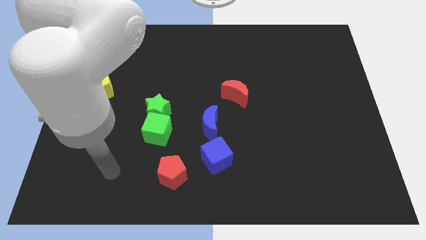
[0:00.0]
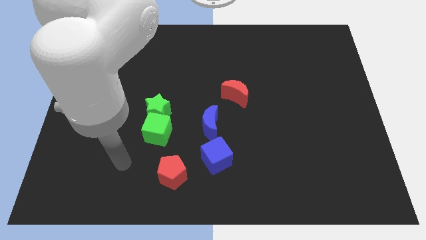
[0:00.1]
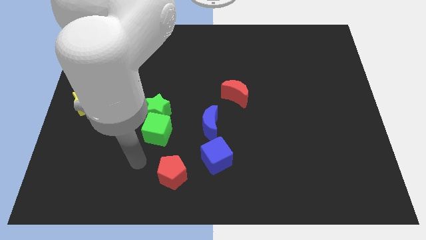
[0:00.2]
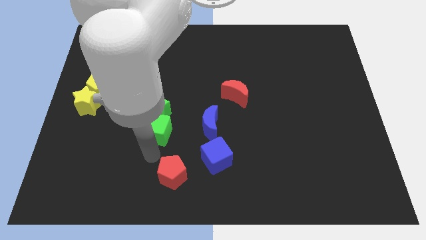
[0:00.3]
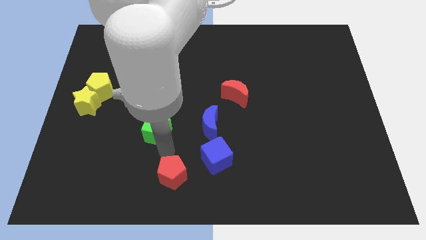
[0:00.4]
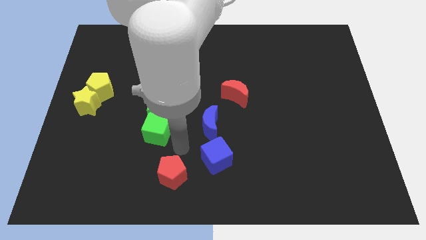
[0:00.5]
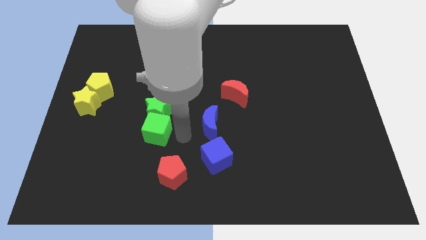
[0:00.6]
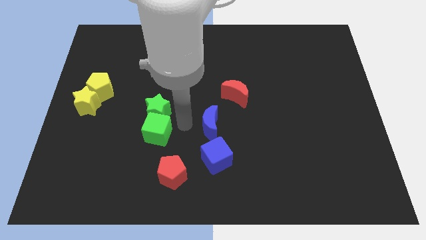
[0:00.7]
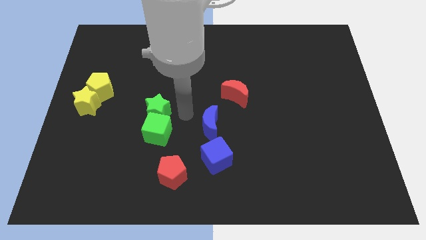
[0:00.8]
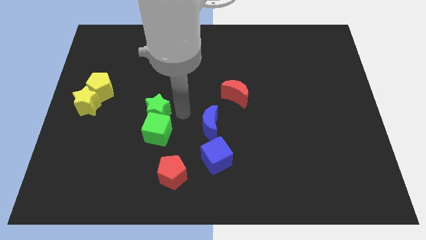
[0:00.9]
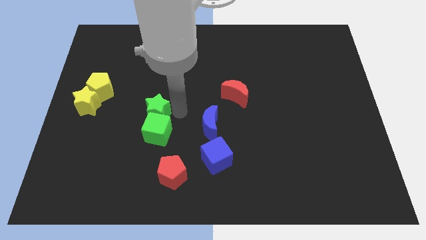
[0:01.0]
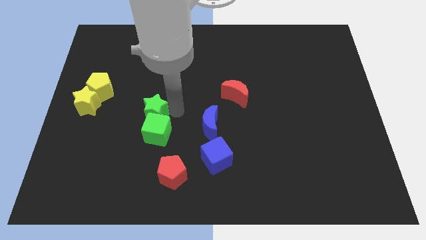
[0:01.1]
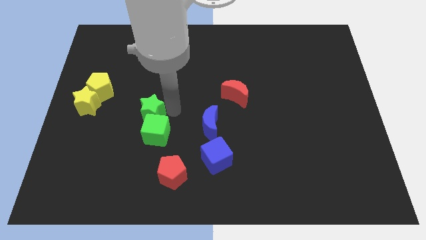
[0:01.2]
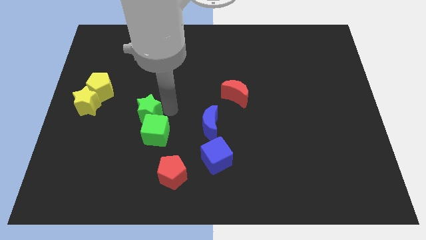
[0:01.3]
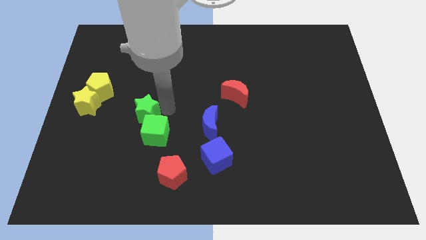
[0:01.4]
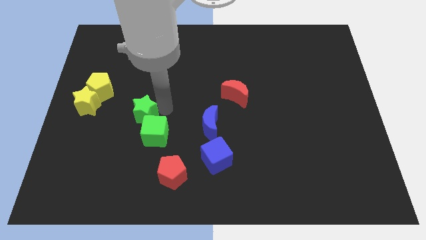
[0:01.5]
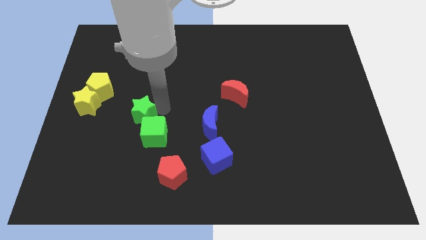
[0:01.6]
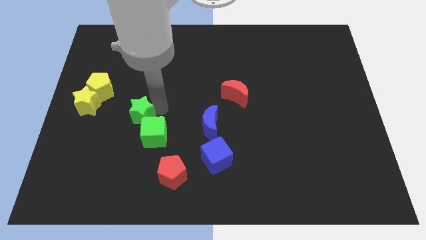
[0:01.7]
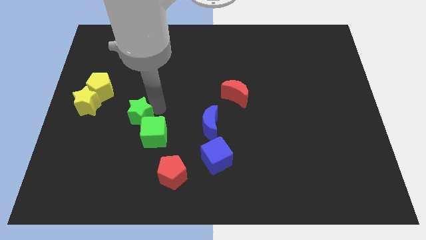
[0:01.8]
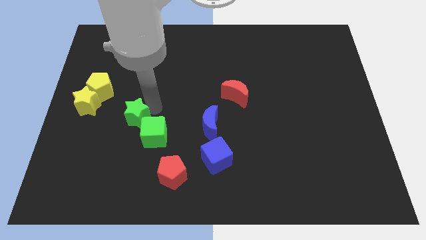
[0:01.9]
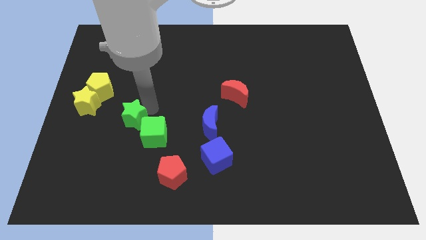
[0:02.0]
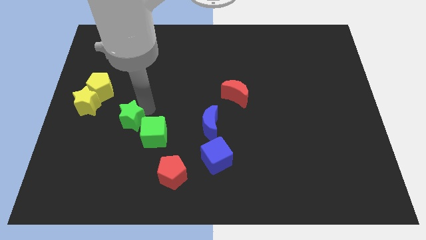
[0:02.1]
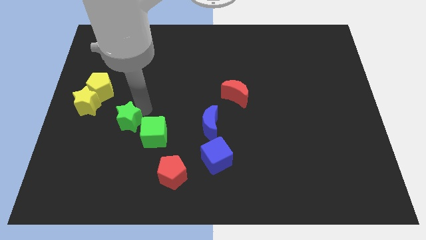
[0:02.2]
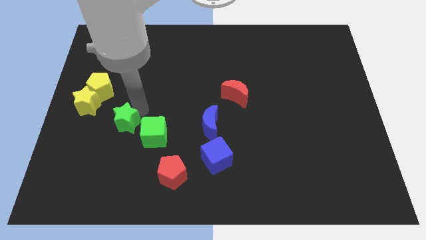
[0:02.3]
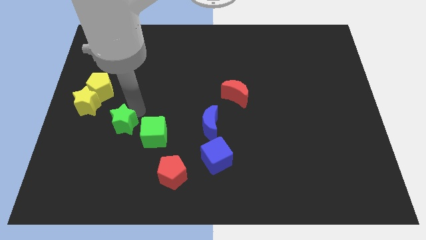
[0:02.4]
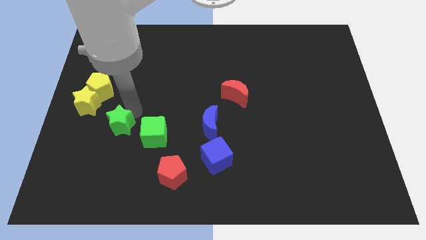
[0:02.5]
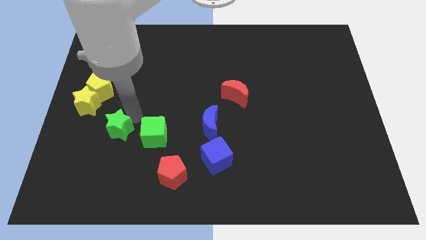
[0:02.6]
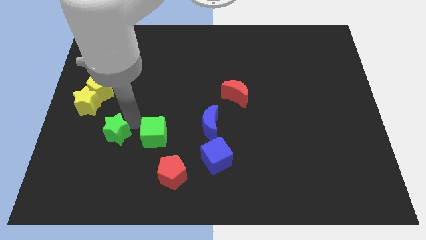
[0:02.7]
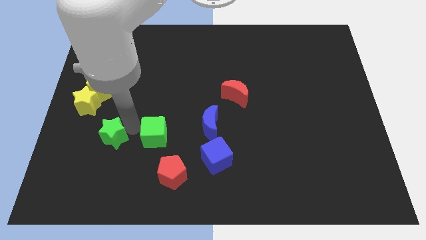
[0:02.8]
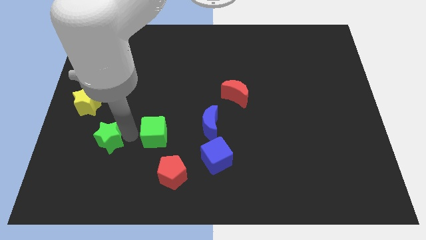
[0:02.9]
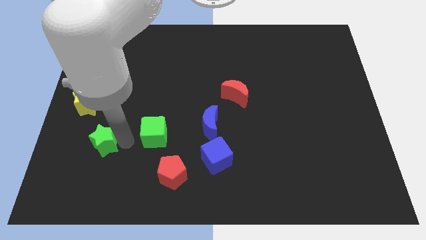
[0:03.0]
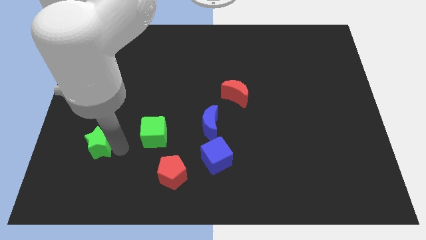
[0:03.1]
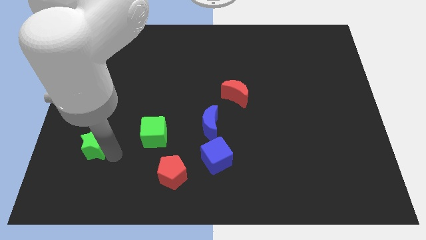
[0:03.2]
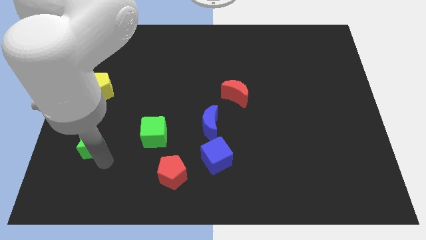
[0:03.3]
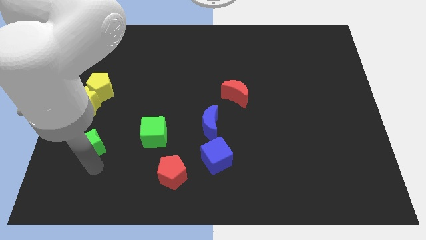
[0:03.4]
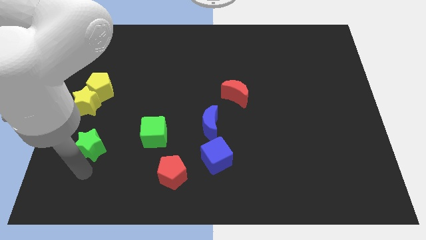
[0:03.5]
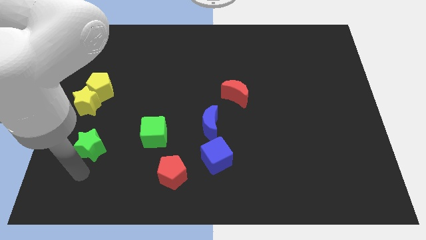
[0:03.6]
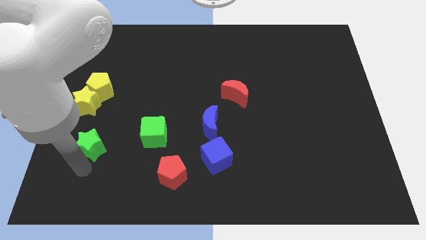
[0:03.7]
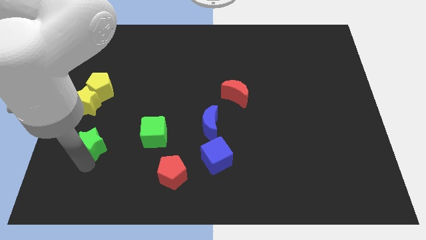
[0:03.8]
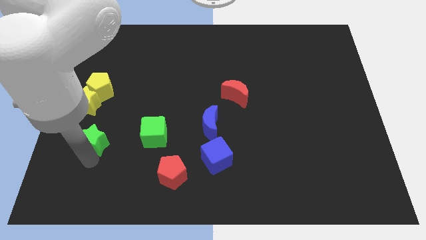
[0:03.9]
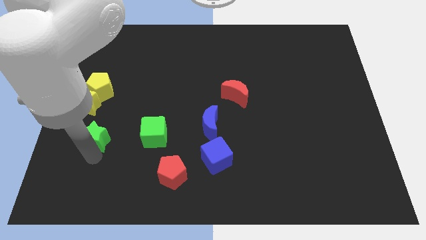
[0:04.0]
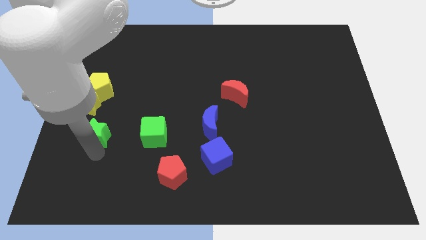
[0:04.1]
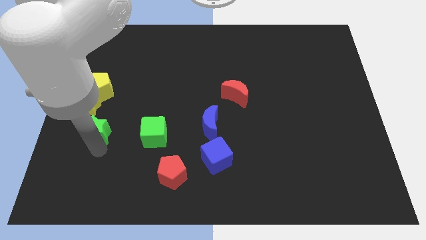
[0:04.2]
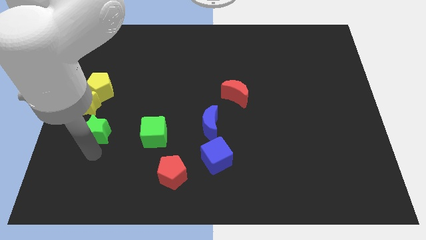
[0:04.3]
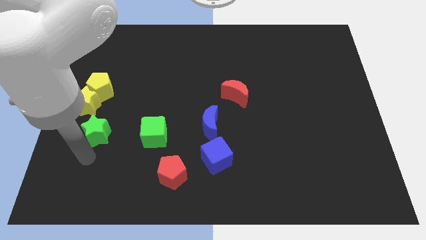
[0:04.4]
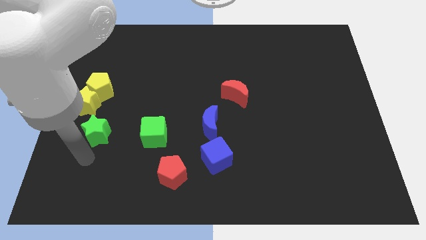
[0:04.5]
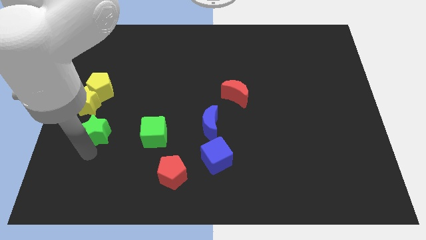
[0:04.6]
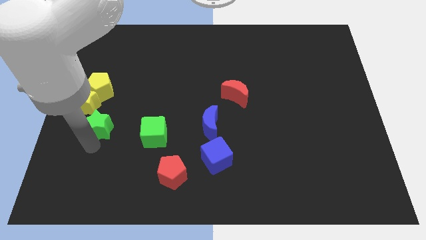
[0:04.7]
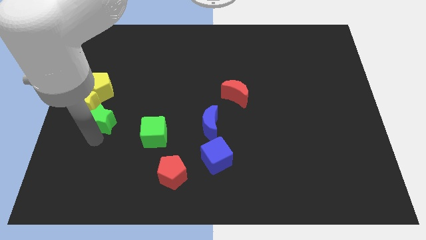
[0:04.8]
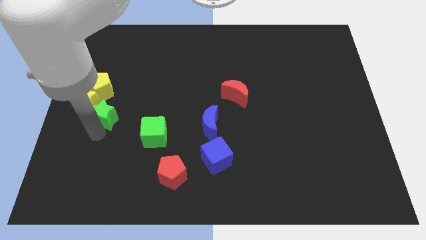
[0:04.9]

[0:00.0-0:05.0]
move the green star next to the yellow star

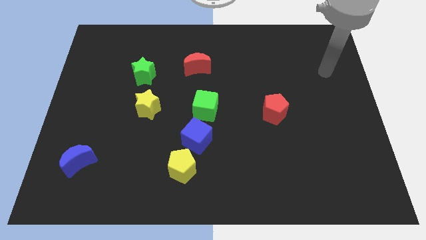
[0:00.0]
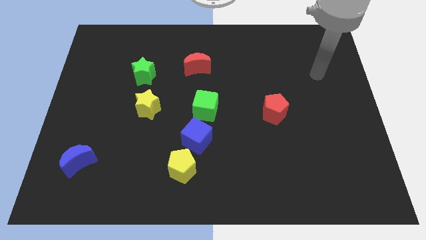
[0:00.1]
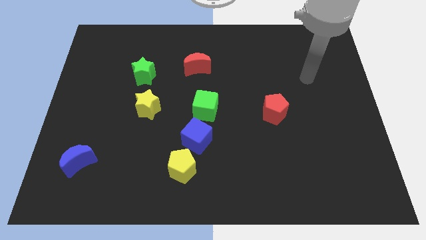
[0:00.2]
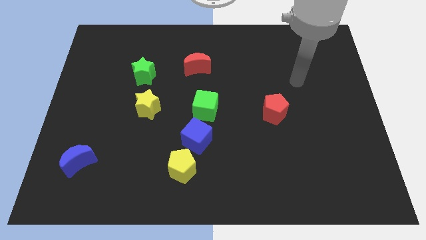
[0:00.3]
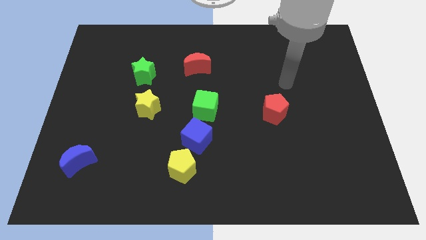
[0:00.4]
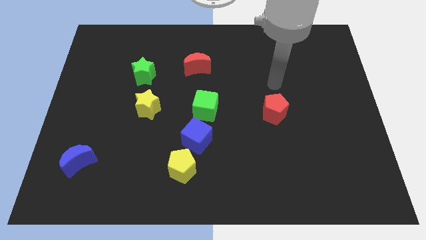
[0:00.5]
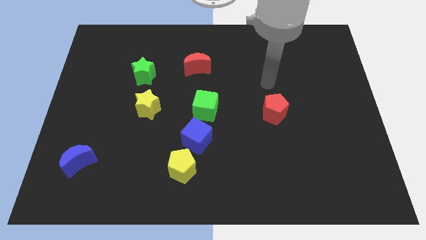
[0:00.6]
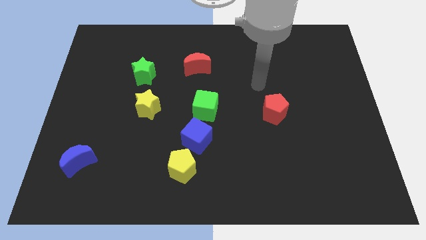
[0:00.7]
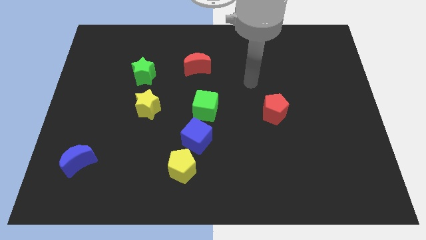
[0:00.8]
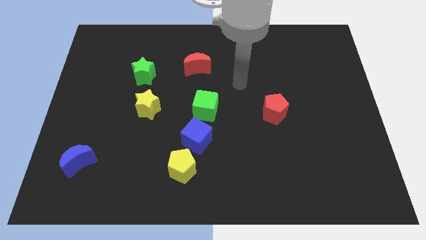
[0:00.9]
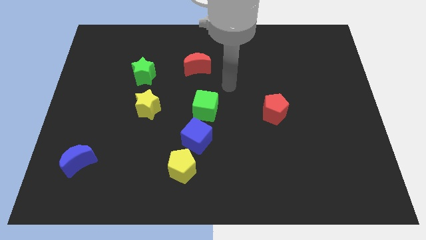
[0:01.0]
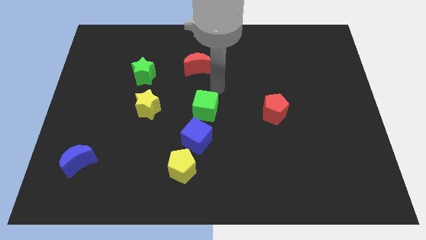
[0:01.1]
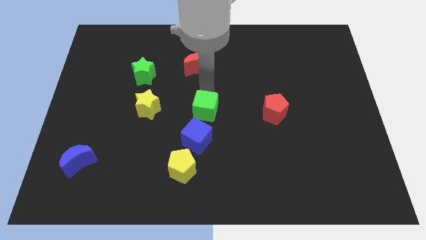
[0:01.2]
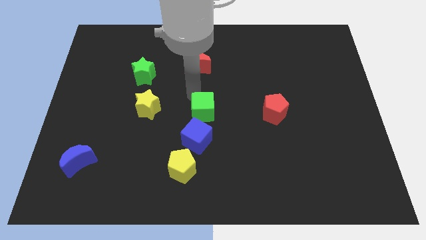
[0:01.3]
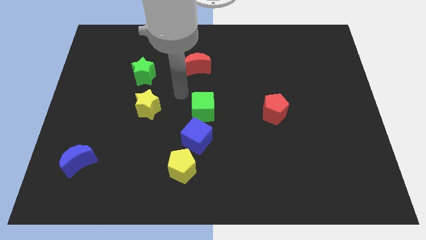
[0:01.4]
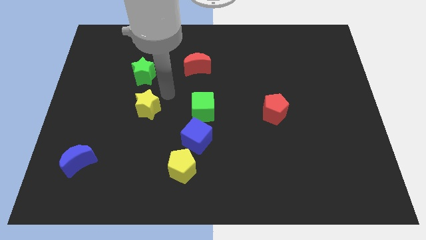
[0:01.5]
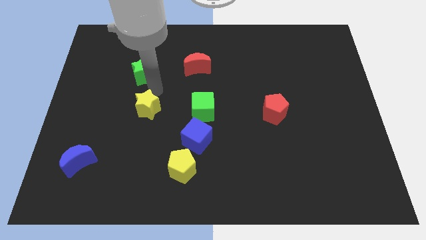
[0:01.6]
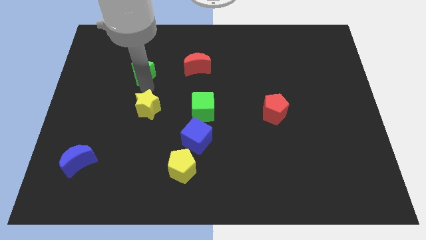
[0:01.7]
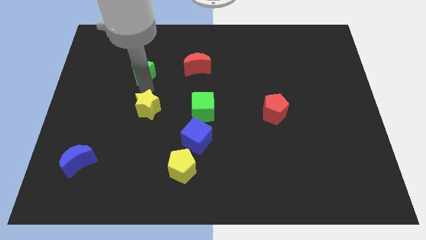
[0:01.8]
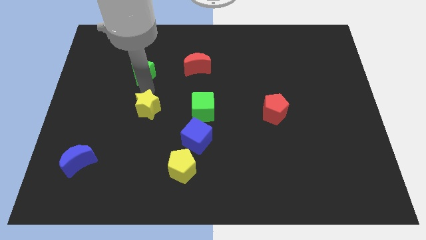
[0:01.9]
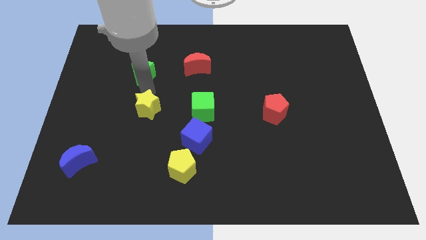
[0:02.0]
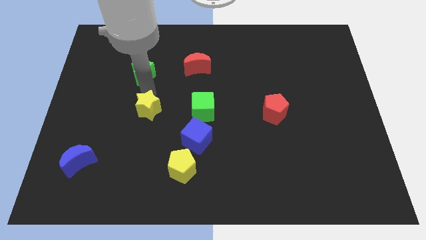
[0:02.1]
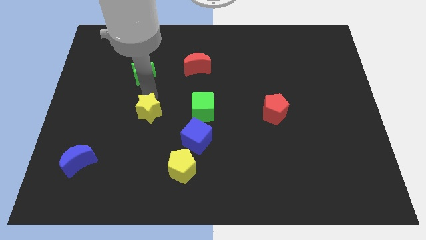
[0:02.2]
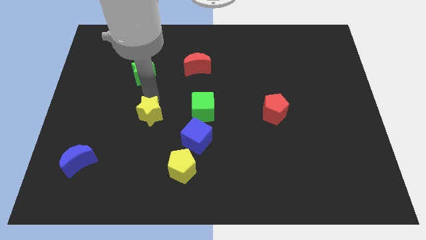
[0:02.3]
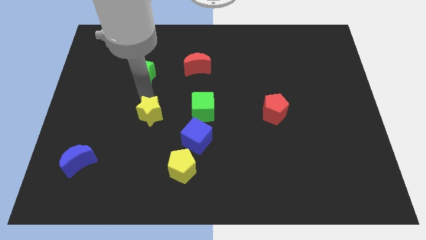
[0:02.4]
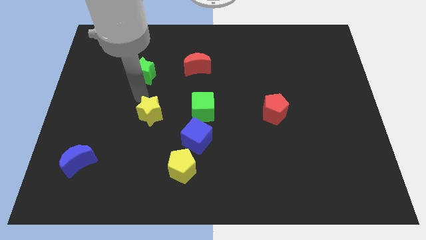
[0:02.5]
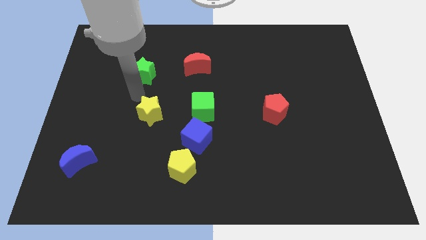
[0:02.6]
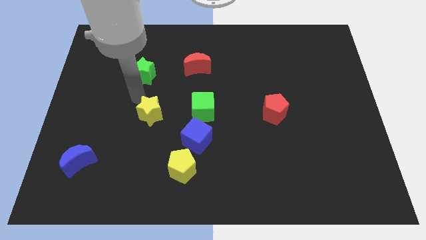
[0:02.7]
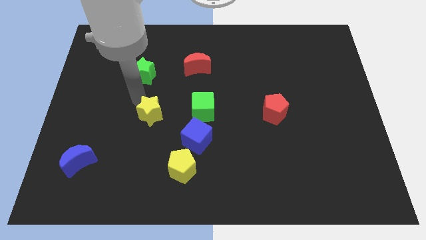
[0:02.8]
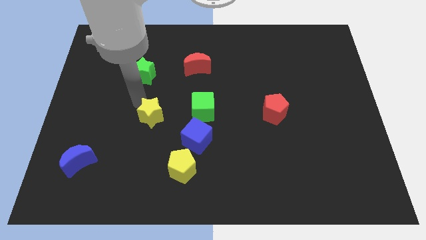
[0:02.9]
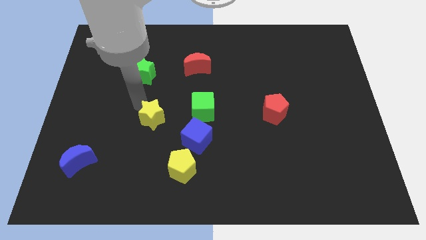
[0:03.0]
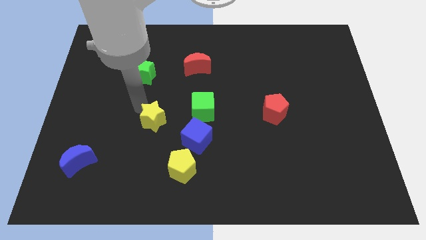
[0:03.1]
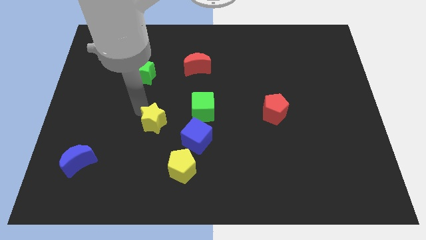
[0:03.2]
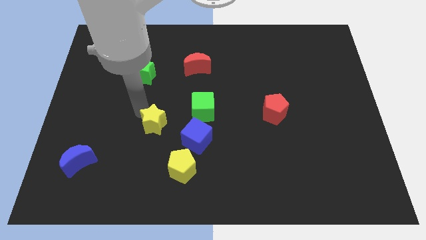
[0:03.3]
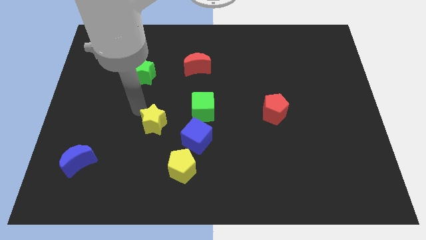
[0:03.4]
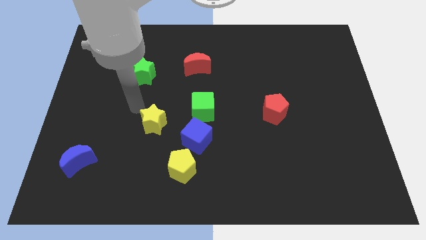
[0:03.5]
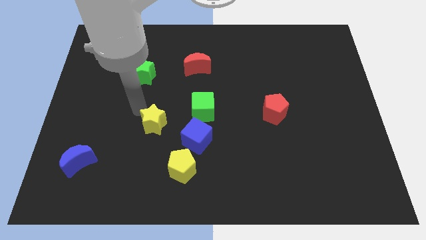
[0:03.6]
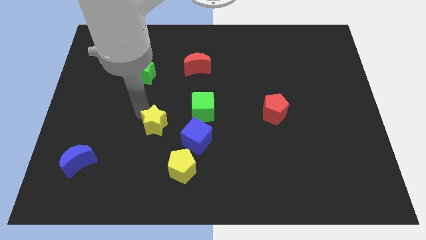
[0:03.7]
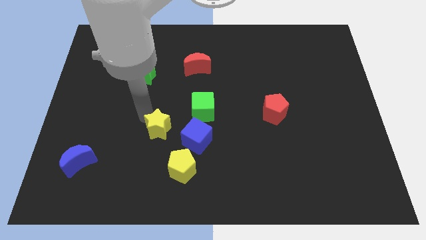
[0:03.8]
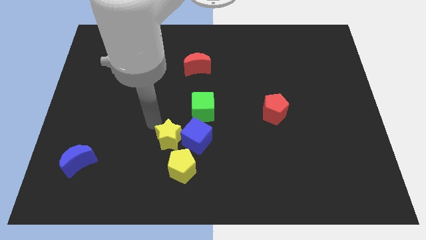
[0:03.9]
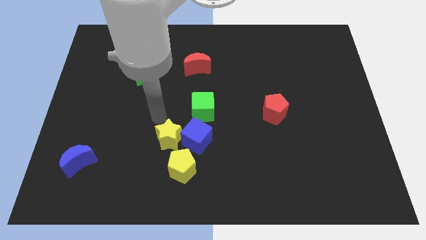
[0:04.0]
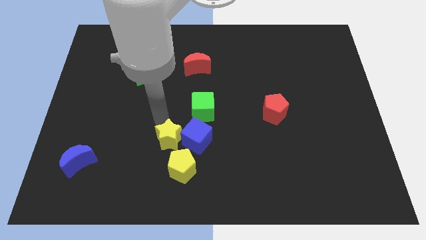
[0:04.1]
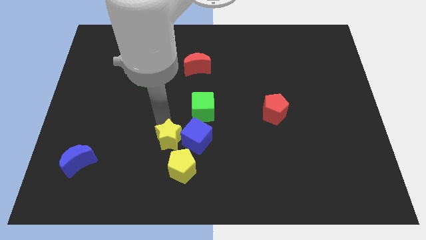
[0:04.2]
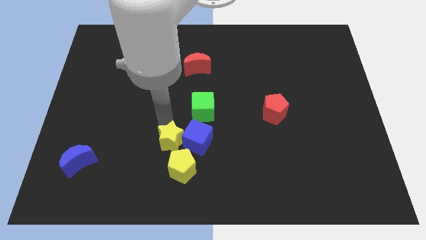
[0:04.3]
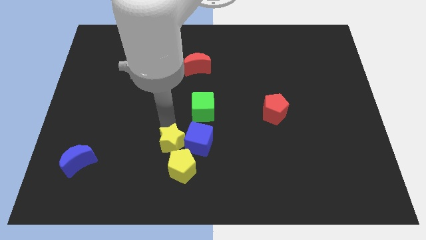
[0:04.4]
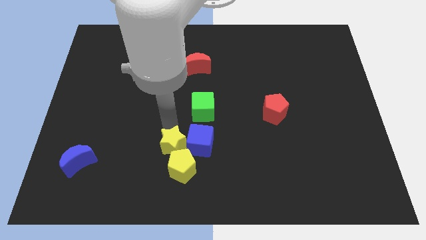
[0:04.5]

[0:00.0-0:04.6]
push the yellow star to the yellow pentagon
